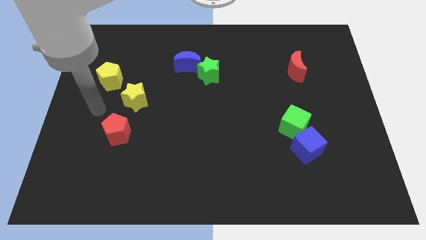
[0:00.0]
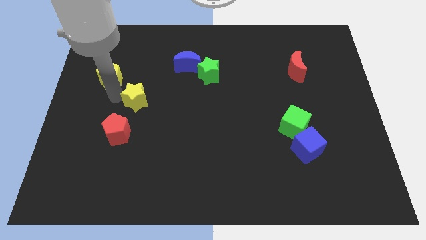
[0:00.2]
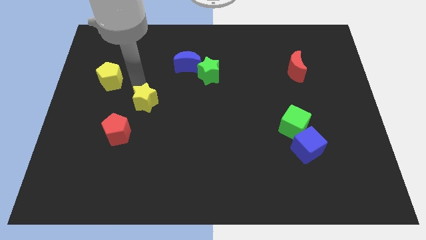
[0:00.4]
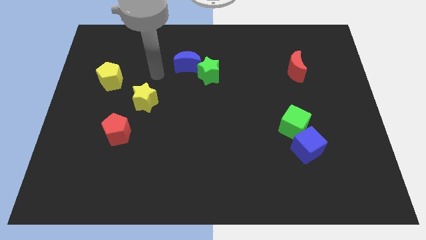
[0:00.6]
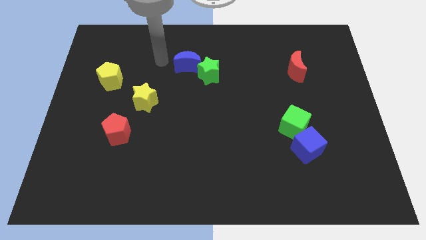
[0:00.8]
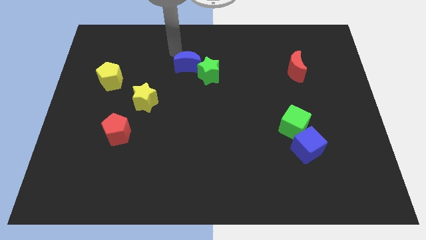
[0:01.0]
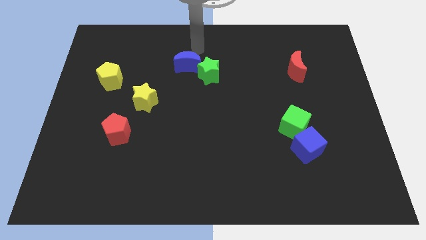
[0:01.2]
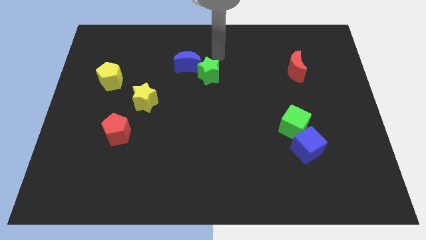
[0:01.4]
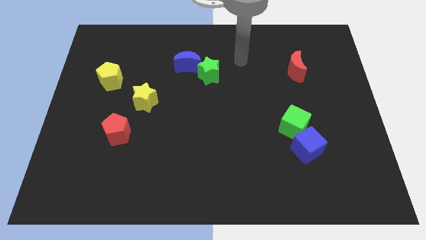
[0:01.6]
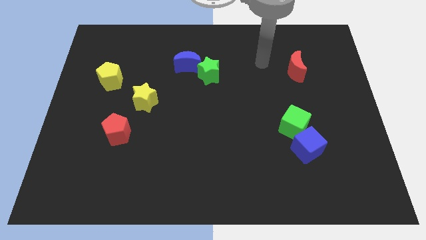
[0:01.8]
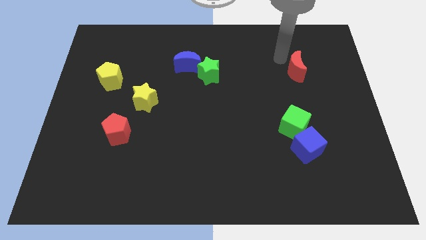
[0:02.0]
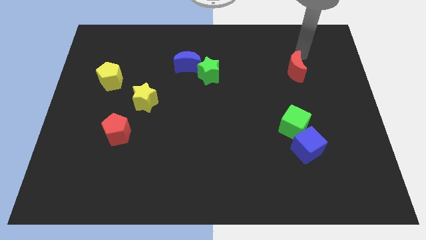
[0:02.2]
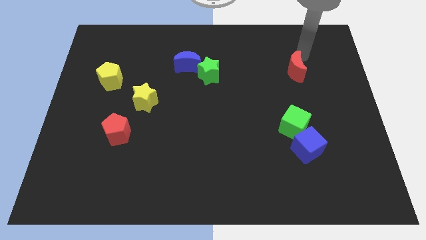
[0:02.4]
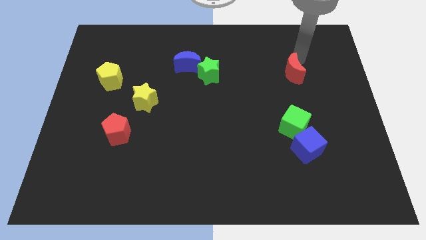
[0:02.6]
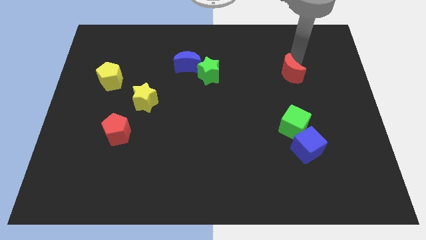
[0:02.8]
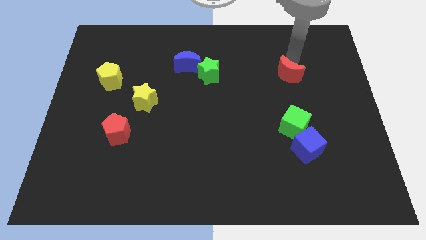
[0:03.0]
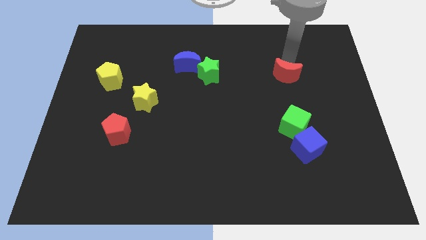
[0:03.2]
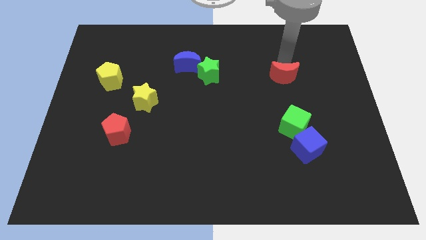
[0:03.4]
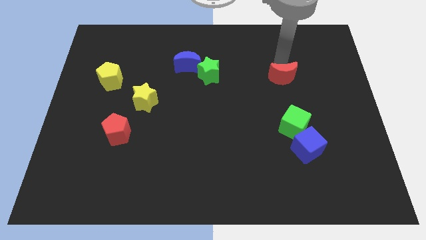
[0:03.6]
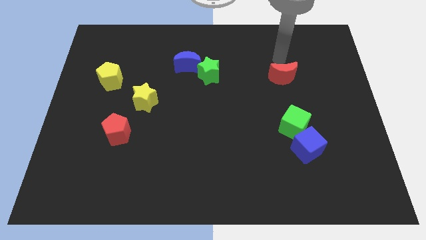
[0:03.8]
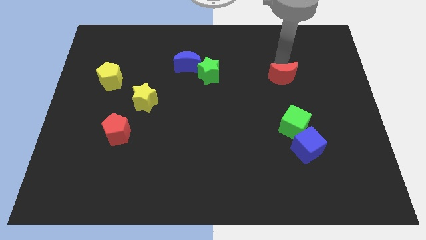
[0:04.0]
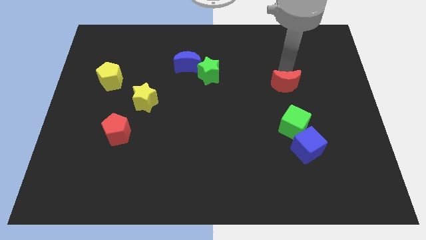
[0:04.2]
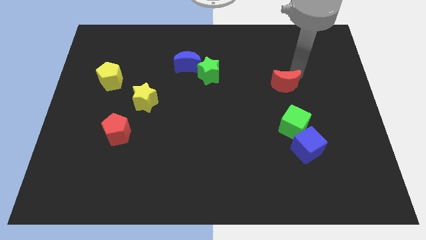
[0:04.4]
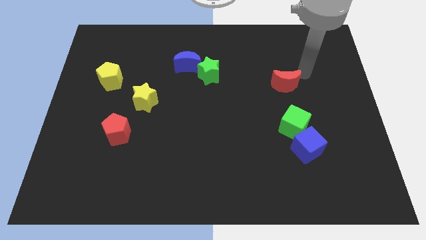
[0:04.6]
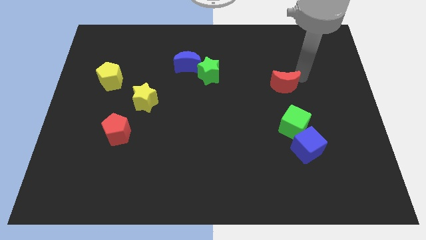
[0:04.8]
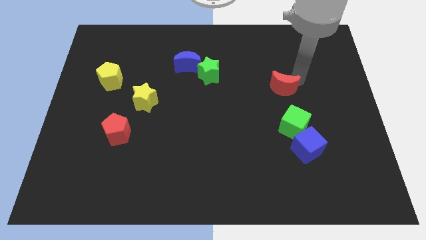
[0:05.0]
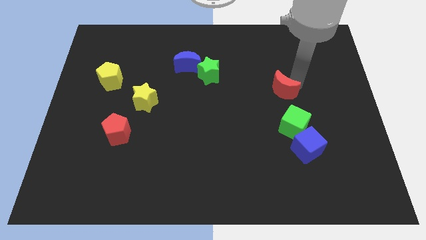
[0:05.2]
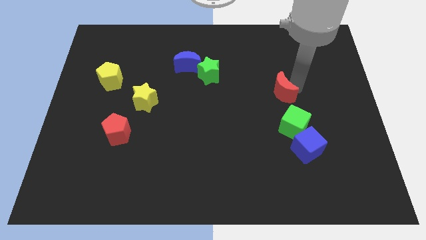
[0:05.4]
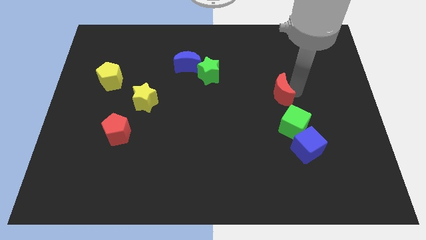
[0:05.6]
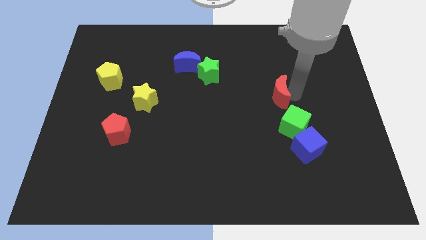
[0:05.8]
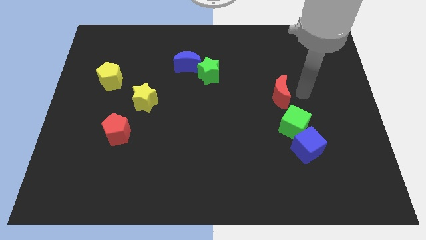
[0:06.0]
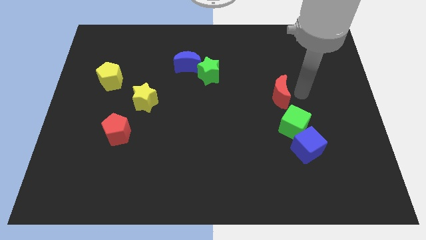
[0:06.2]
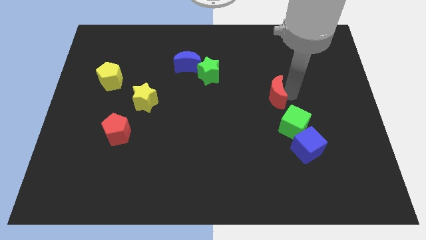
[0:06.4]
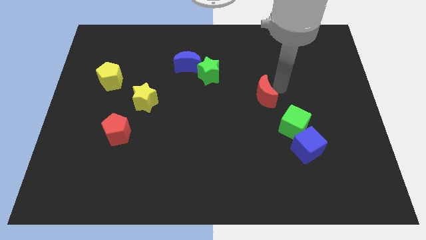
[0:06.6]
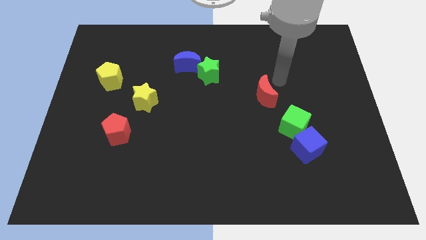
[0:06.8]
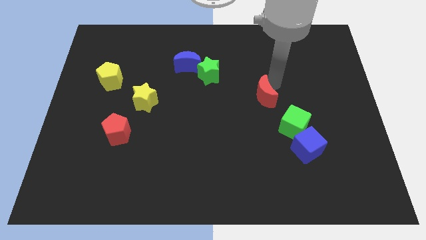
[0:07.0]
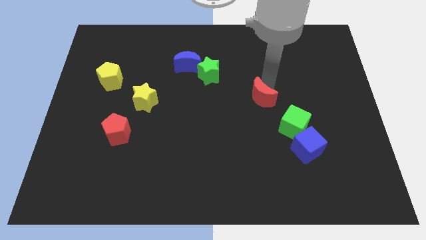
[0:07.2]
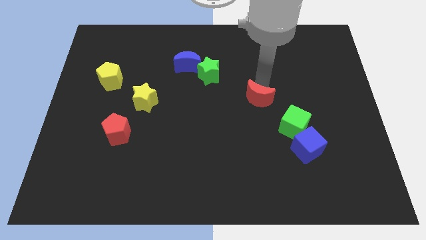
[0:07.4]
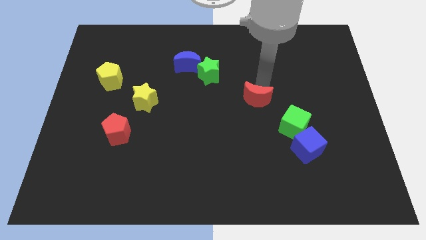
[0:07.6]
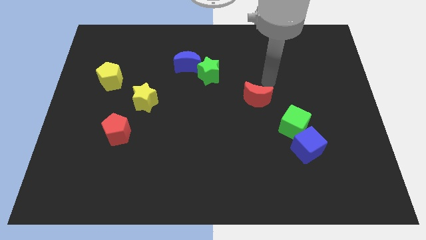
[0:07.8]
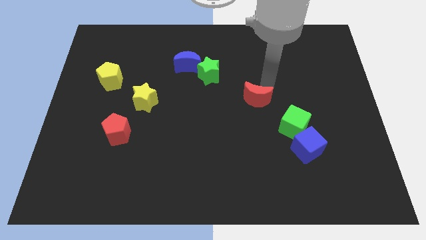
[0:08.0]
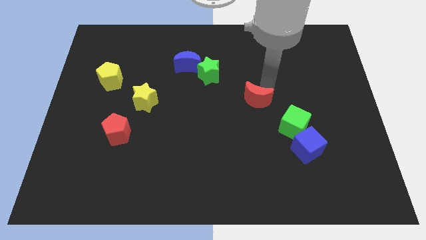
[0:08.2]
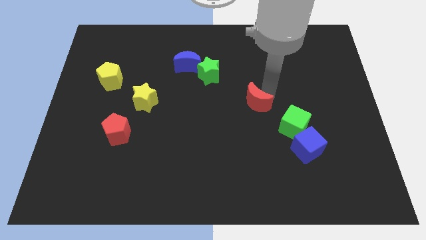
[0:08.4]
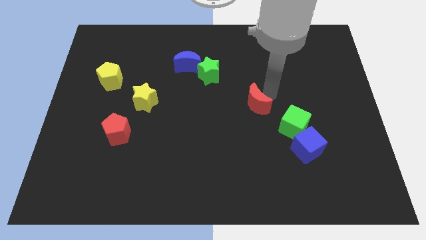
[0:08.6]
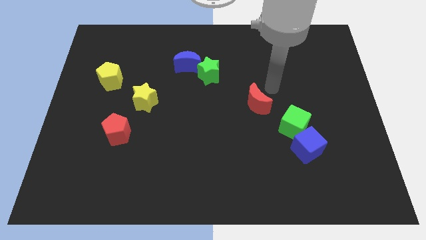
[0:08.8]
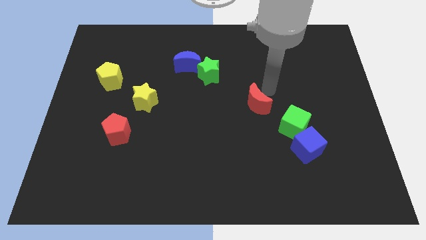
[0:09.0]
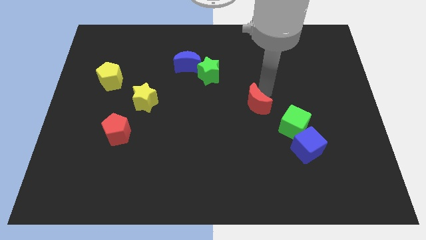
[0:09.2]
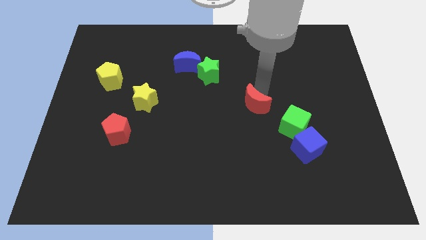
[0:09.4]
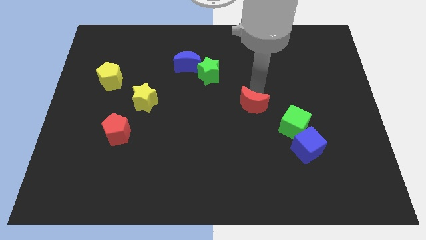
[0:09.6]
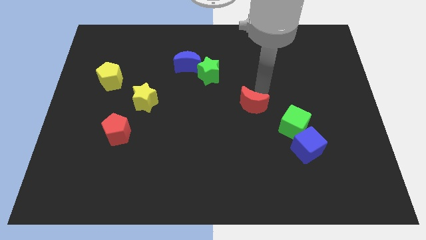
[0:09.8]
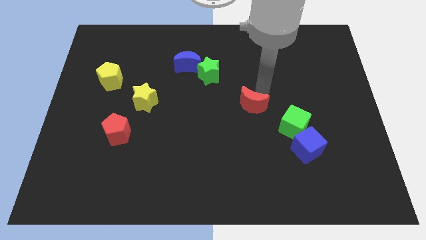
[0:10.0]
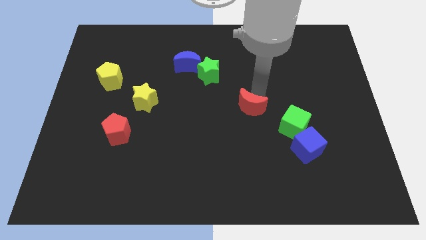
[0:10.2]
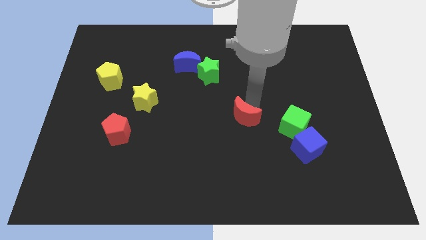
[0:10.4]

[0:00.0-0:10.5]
move the red moon diagonally downwards and to the left

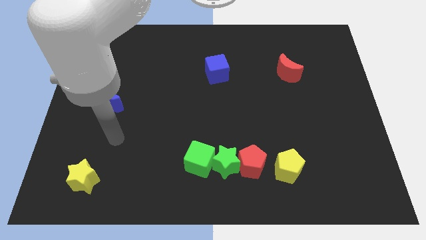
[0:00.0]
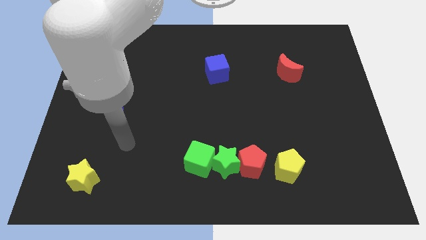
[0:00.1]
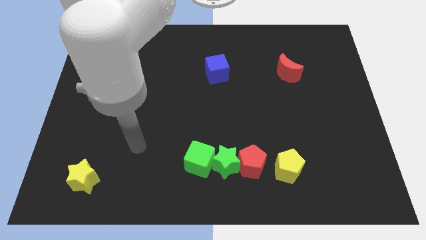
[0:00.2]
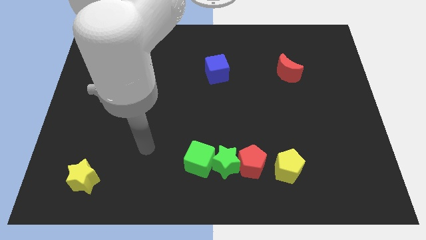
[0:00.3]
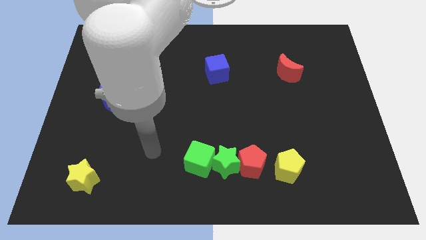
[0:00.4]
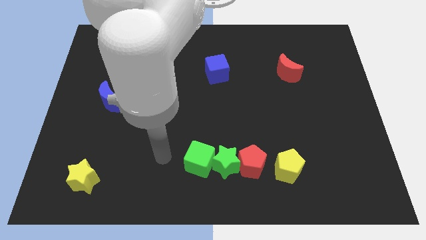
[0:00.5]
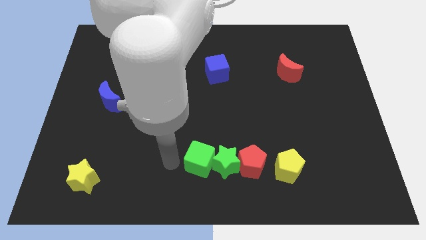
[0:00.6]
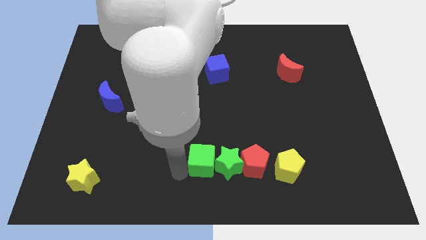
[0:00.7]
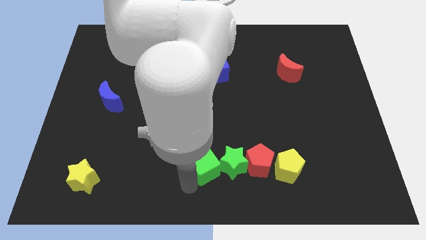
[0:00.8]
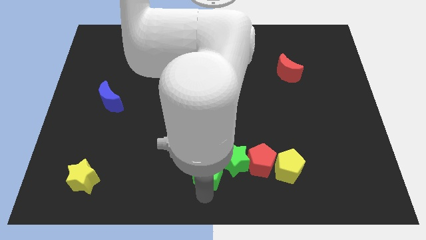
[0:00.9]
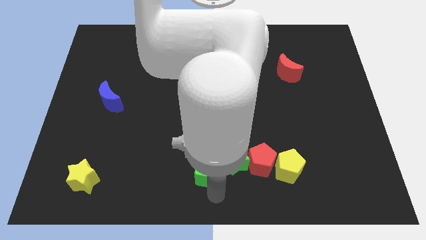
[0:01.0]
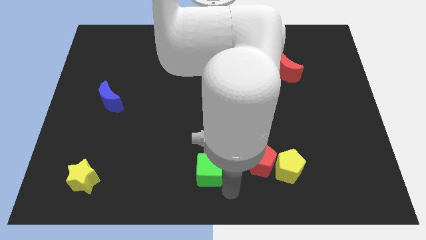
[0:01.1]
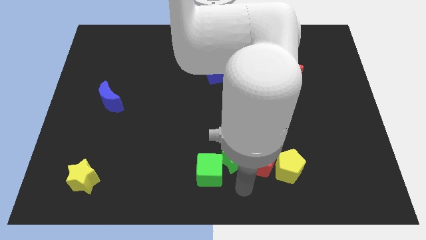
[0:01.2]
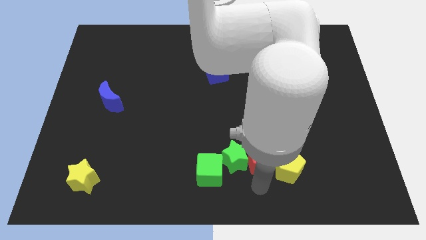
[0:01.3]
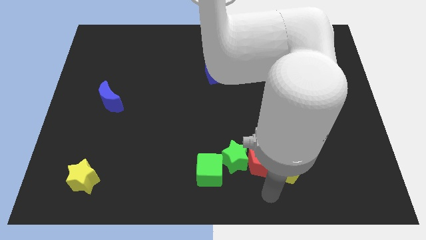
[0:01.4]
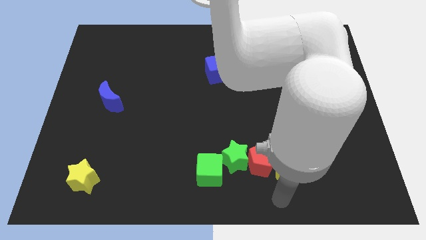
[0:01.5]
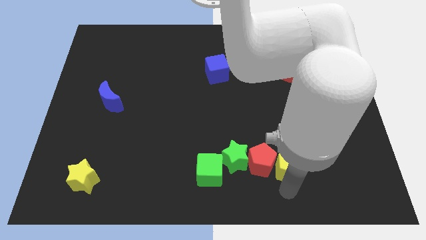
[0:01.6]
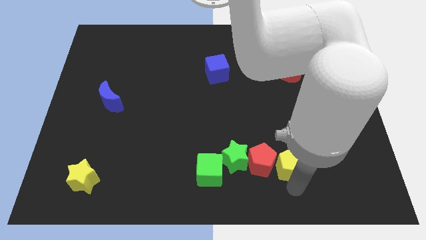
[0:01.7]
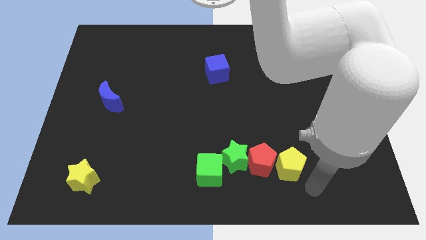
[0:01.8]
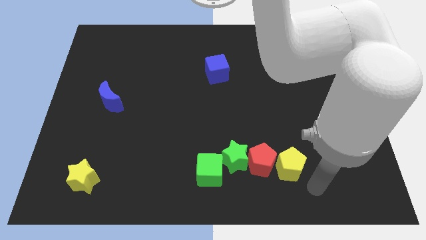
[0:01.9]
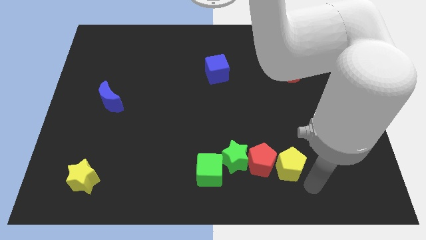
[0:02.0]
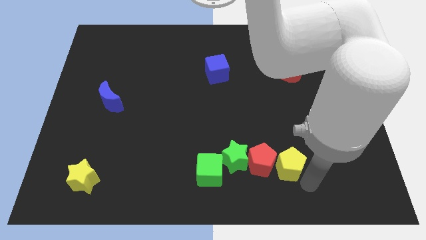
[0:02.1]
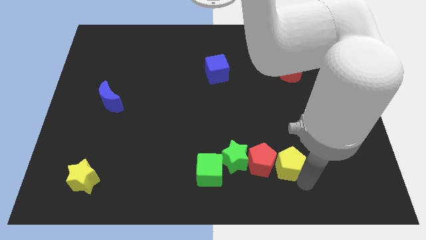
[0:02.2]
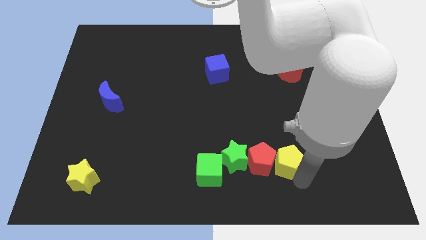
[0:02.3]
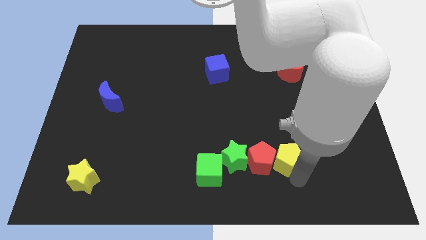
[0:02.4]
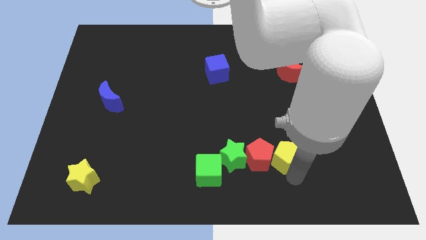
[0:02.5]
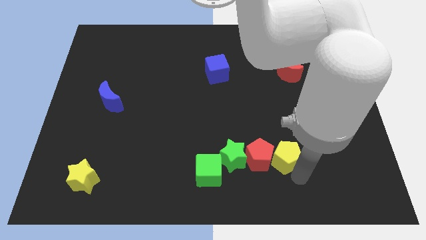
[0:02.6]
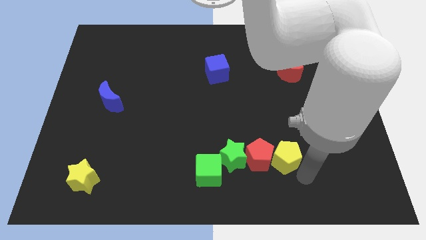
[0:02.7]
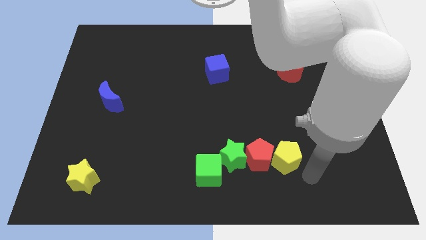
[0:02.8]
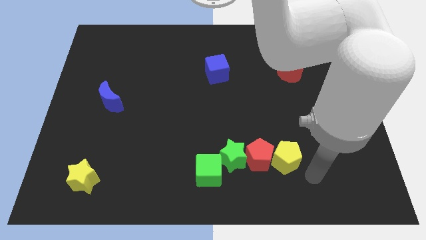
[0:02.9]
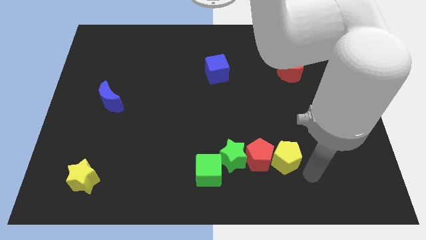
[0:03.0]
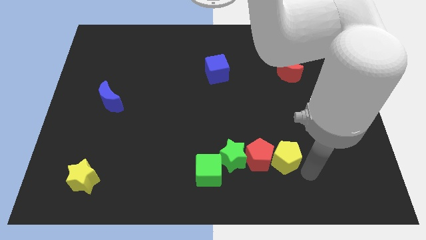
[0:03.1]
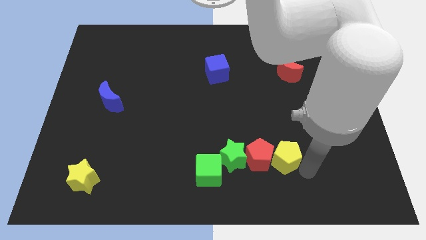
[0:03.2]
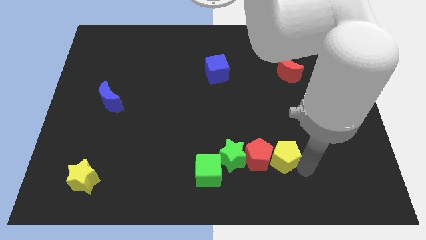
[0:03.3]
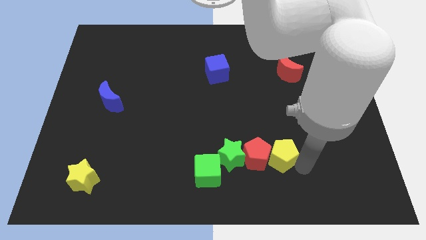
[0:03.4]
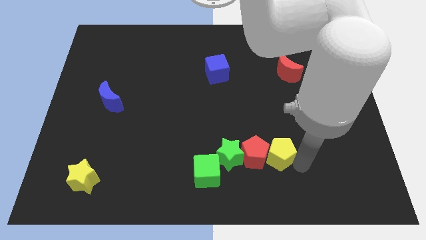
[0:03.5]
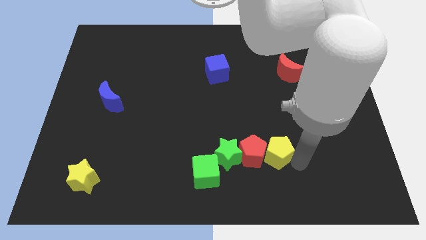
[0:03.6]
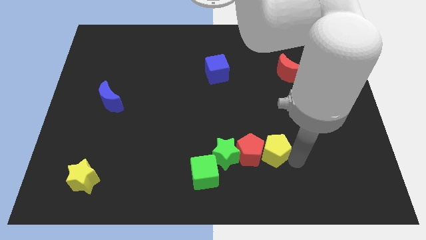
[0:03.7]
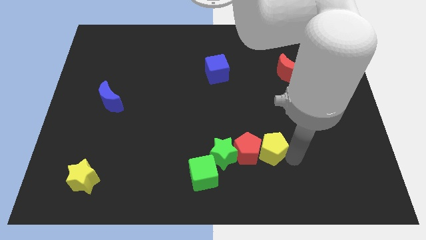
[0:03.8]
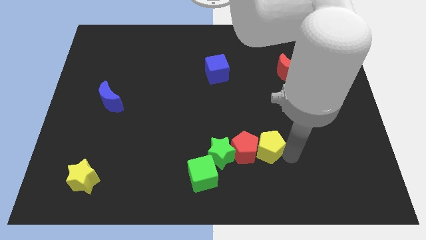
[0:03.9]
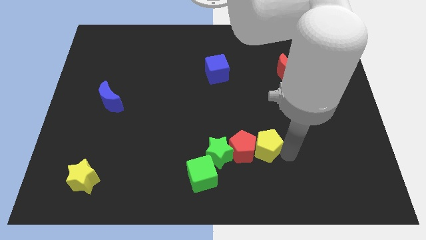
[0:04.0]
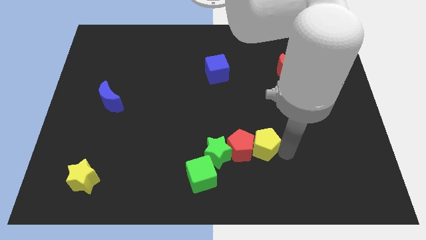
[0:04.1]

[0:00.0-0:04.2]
slightly slide the yellow pentagon up and left
